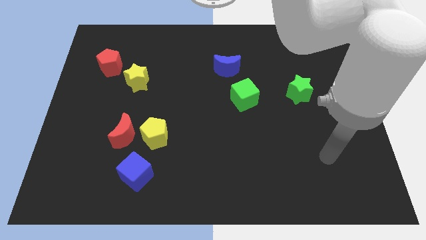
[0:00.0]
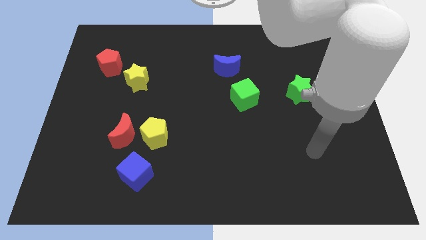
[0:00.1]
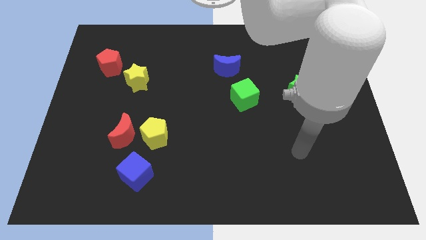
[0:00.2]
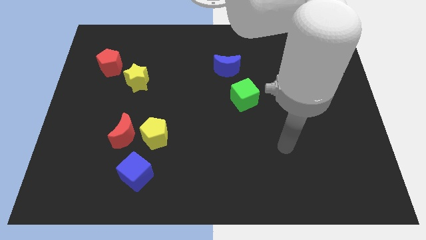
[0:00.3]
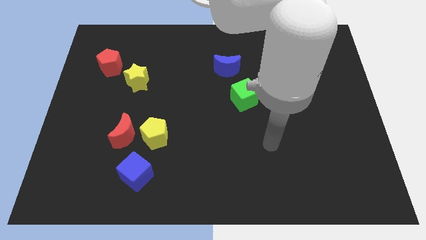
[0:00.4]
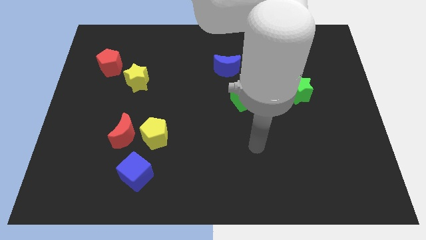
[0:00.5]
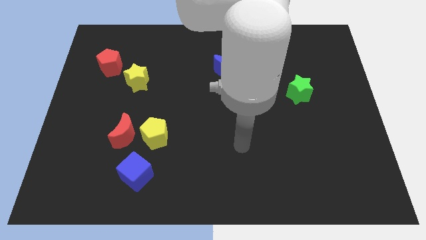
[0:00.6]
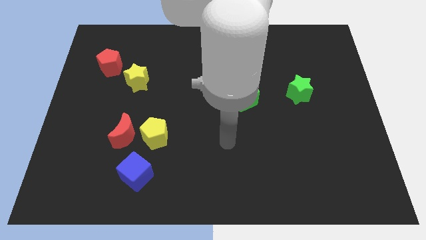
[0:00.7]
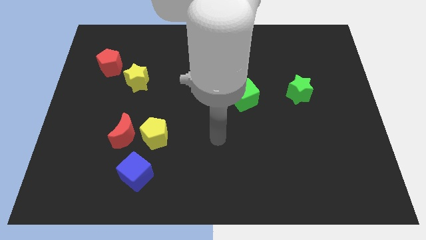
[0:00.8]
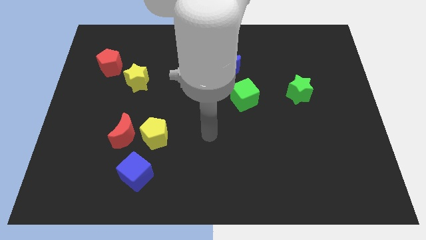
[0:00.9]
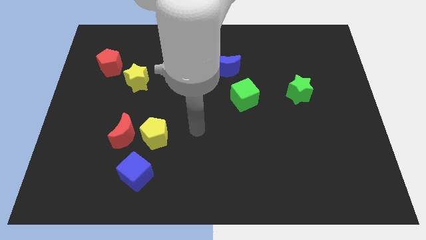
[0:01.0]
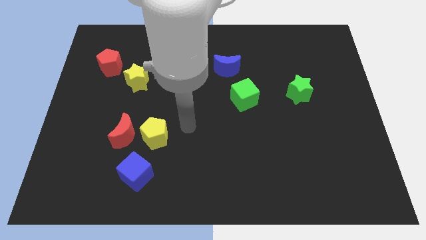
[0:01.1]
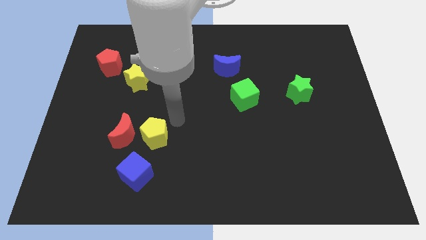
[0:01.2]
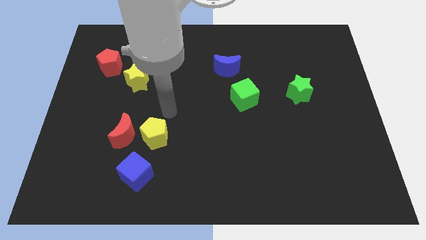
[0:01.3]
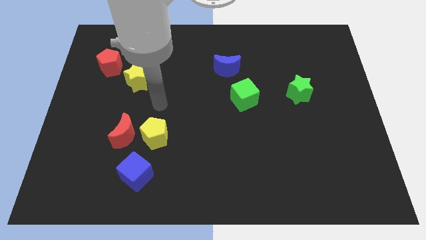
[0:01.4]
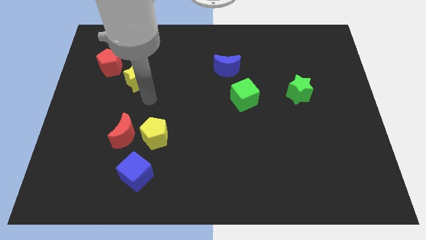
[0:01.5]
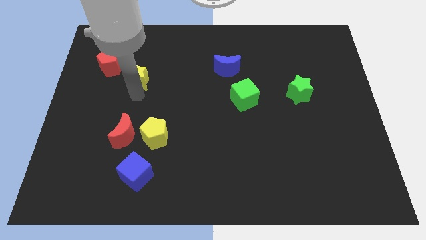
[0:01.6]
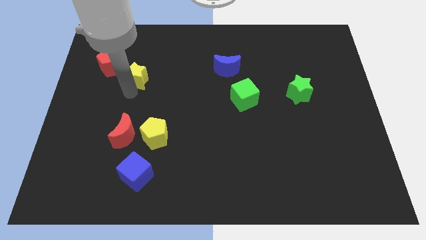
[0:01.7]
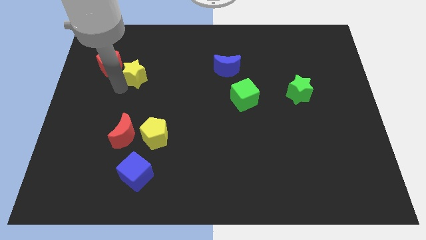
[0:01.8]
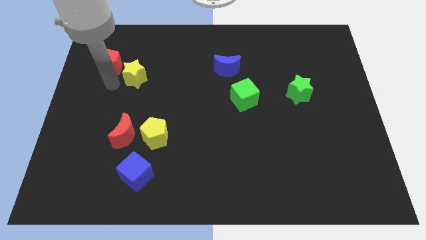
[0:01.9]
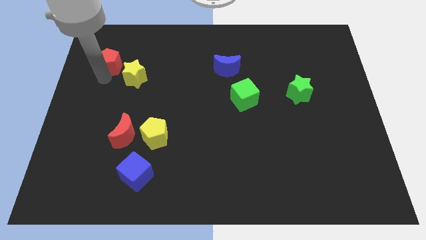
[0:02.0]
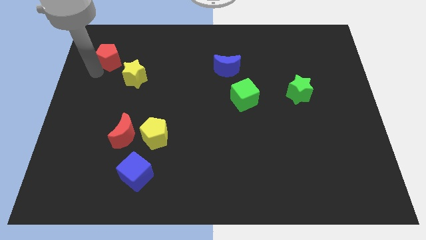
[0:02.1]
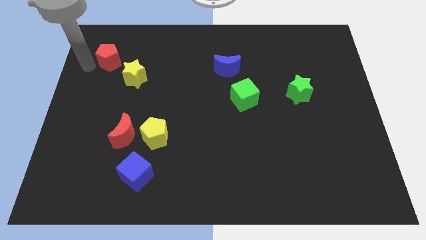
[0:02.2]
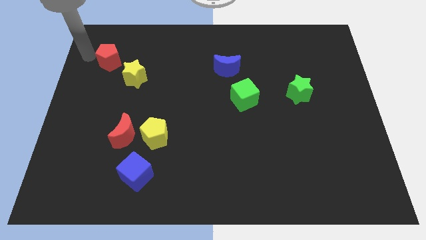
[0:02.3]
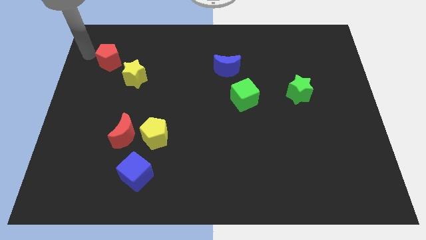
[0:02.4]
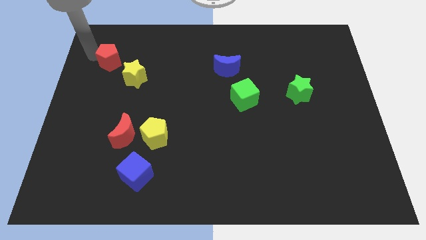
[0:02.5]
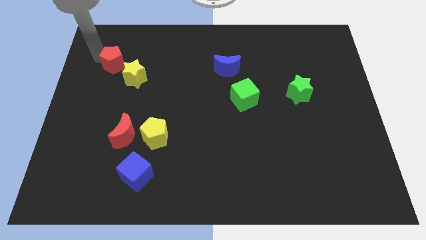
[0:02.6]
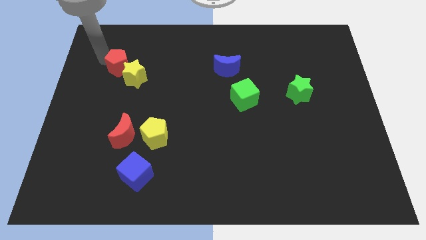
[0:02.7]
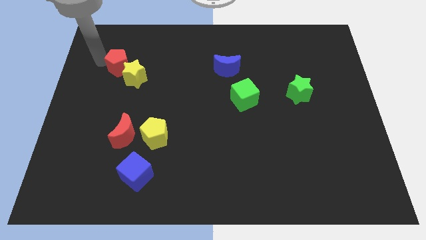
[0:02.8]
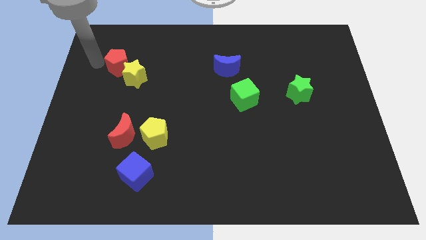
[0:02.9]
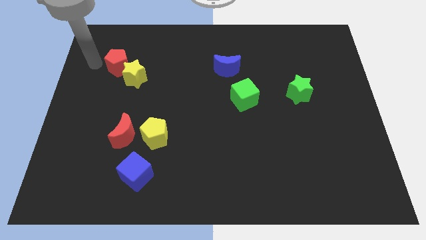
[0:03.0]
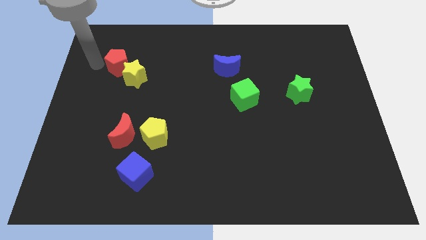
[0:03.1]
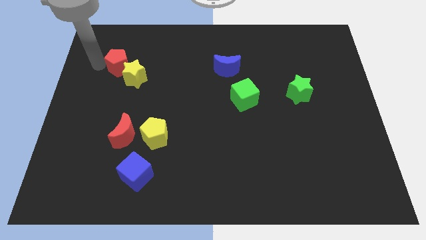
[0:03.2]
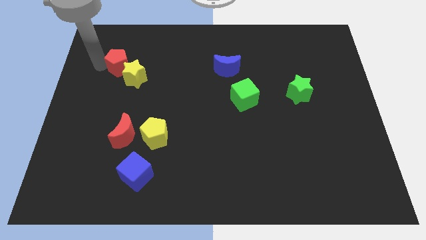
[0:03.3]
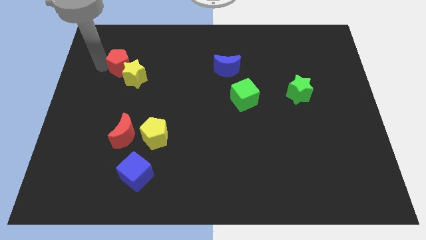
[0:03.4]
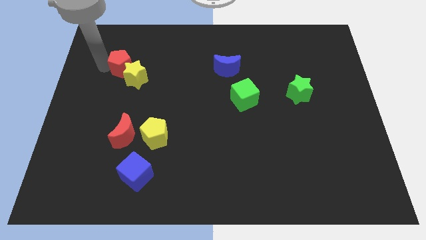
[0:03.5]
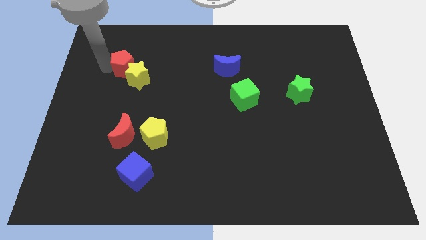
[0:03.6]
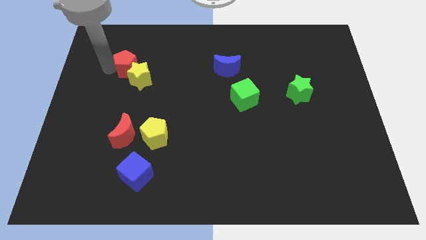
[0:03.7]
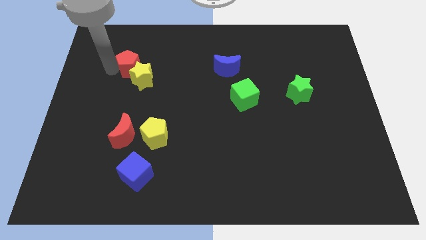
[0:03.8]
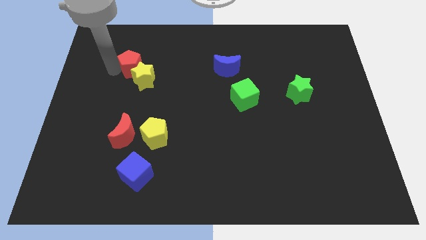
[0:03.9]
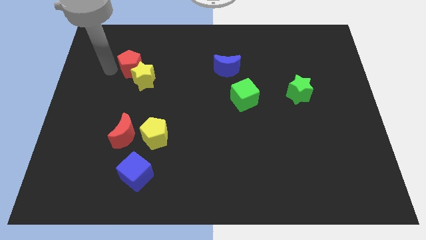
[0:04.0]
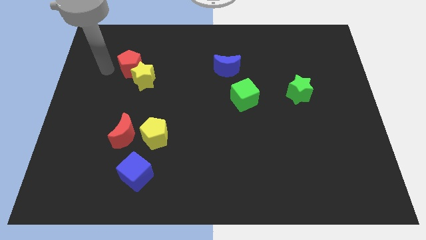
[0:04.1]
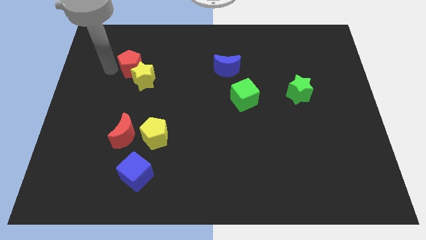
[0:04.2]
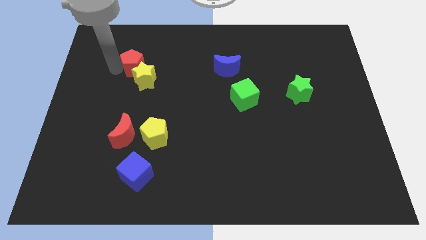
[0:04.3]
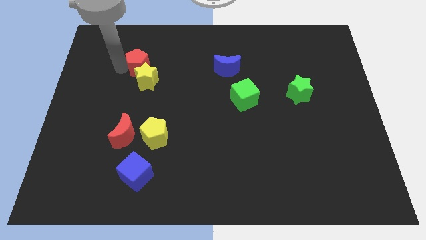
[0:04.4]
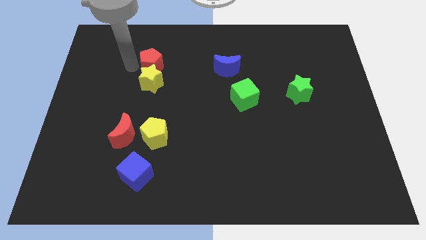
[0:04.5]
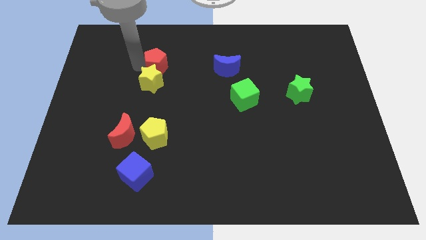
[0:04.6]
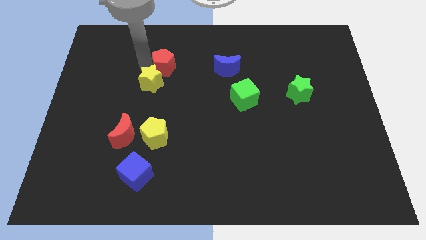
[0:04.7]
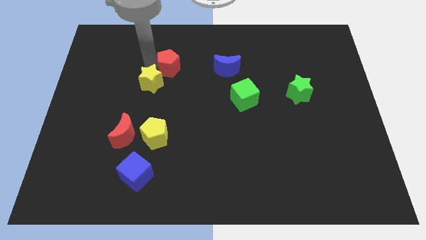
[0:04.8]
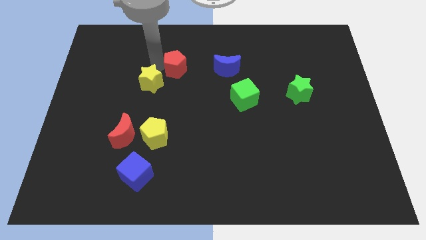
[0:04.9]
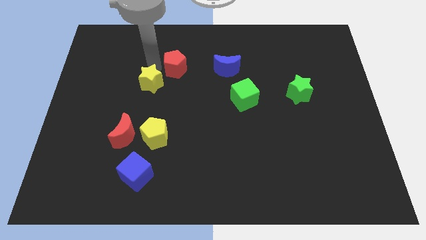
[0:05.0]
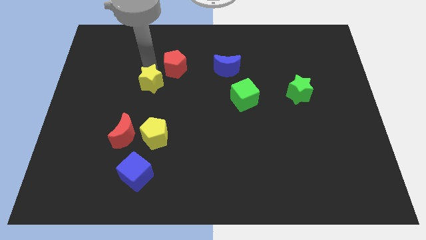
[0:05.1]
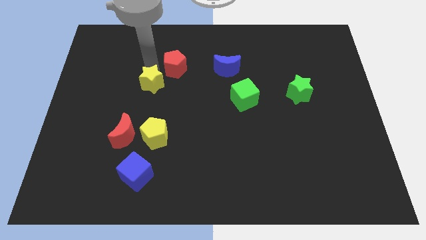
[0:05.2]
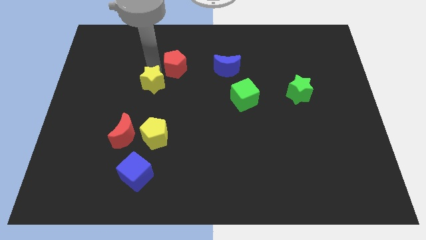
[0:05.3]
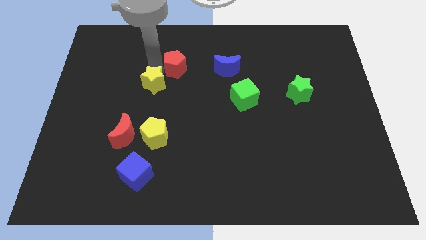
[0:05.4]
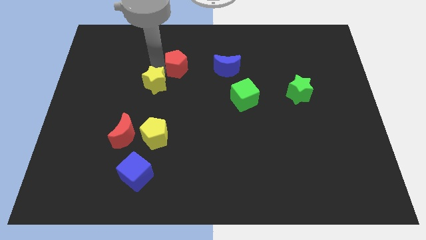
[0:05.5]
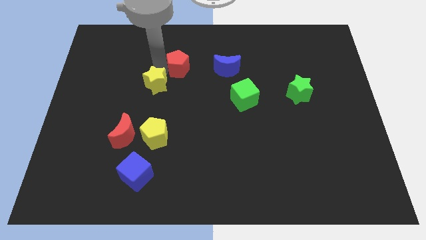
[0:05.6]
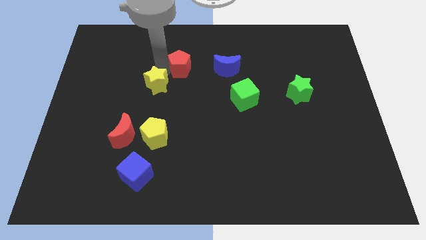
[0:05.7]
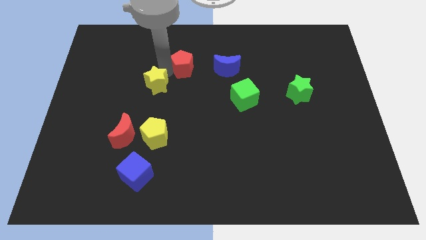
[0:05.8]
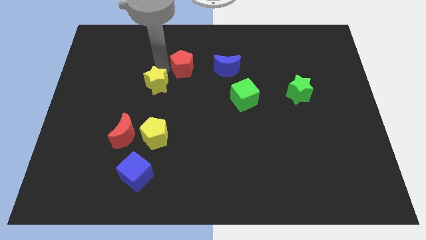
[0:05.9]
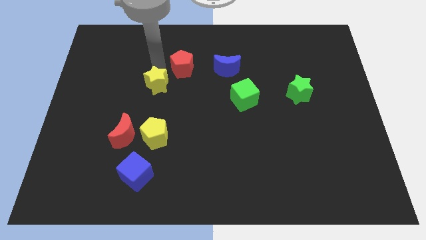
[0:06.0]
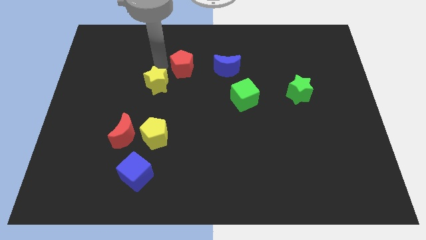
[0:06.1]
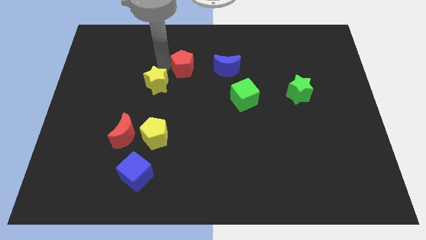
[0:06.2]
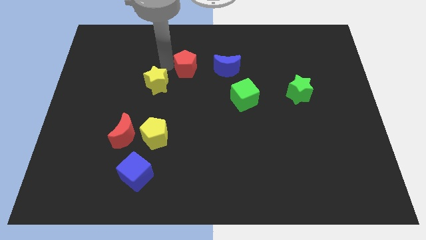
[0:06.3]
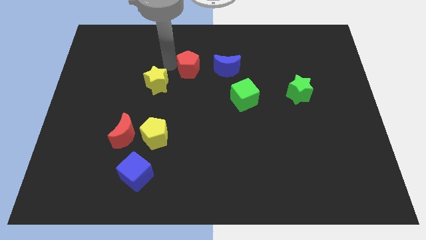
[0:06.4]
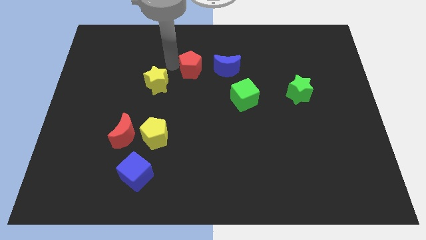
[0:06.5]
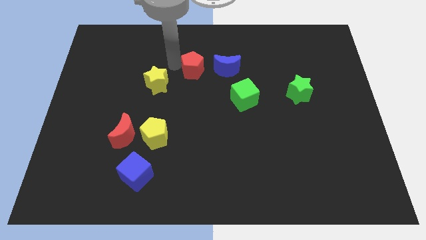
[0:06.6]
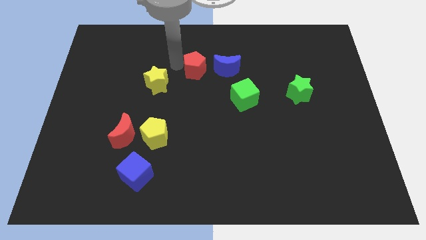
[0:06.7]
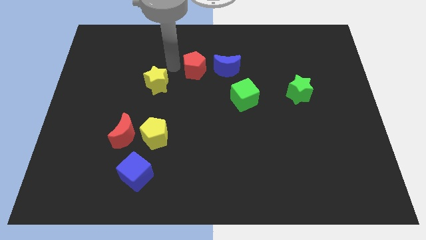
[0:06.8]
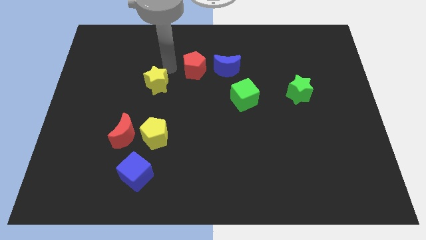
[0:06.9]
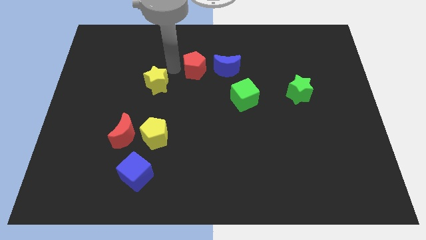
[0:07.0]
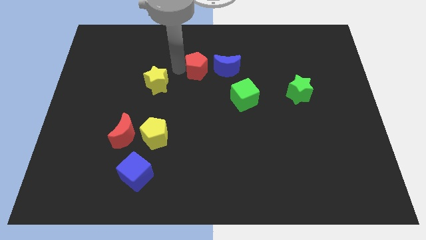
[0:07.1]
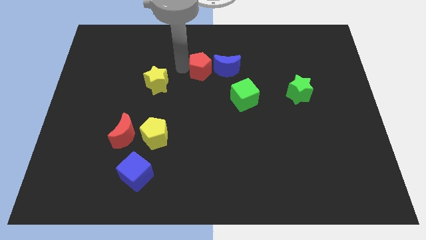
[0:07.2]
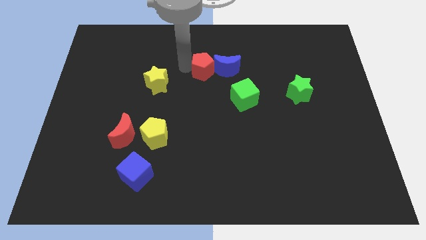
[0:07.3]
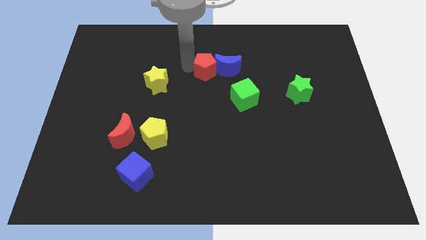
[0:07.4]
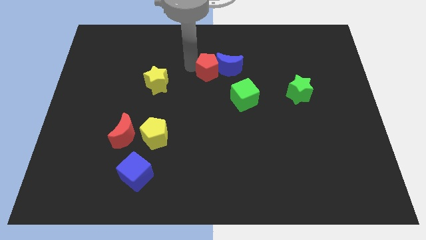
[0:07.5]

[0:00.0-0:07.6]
move the red pentagon to the top left side of the green cube
